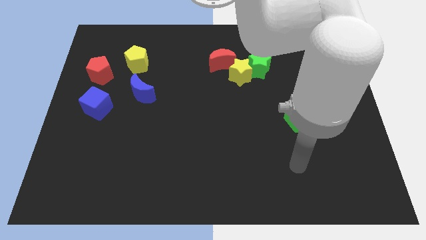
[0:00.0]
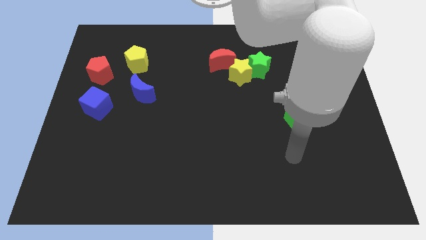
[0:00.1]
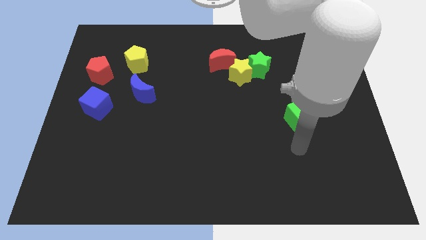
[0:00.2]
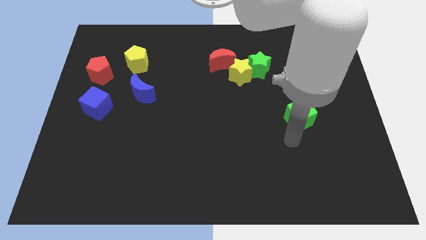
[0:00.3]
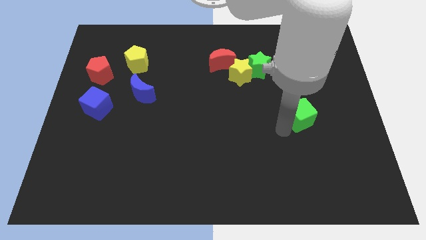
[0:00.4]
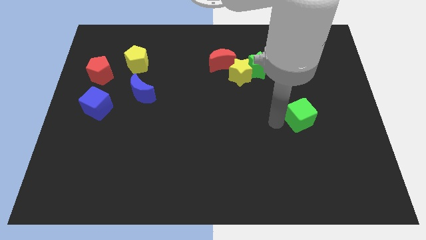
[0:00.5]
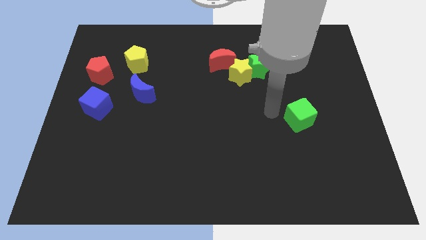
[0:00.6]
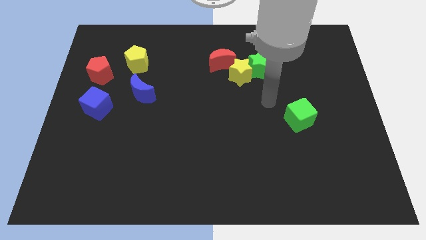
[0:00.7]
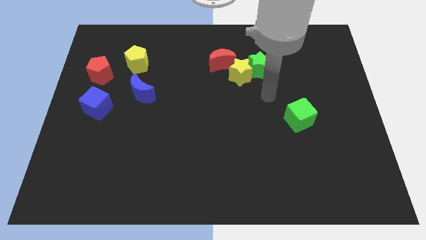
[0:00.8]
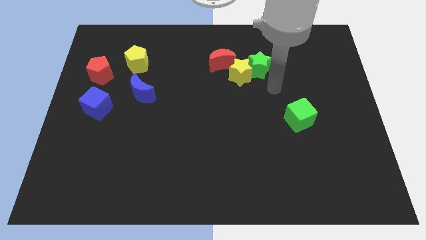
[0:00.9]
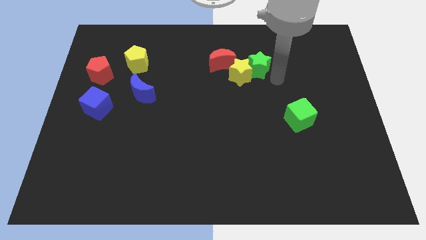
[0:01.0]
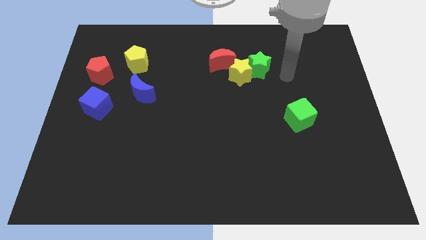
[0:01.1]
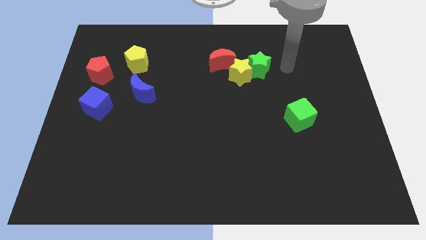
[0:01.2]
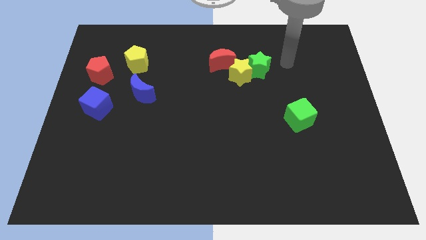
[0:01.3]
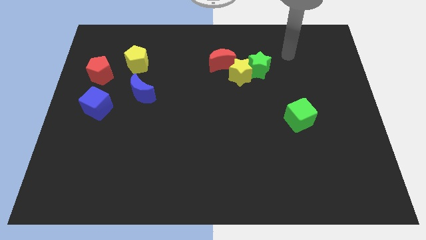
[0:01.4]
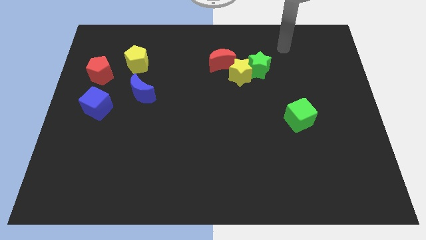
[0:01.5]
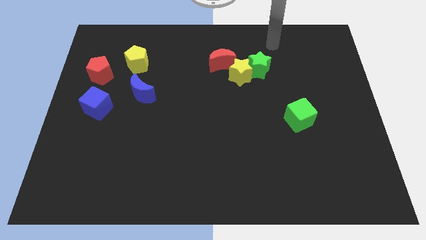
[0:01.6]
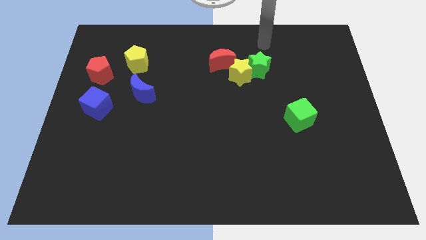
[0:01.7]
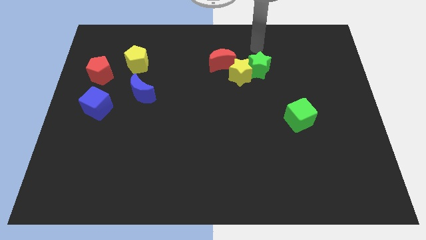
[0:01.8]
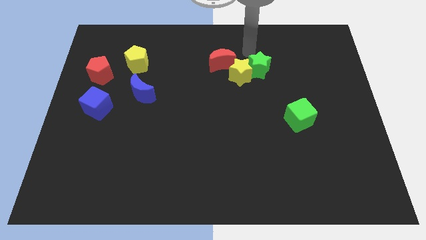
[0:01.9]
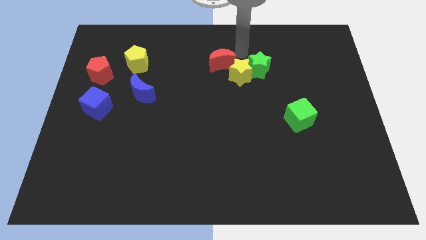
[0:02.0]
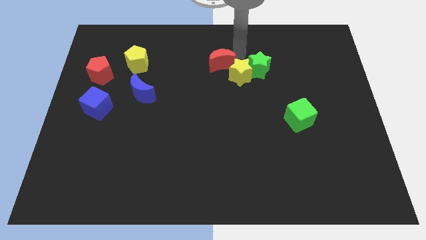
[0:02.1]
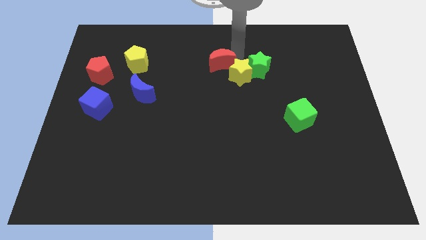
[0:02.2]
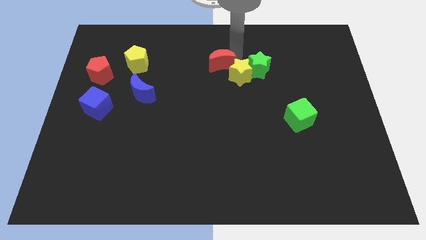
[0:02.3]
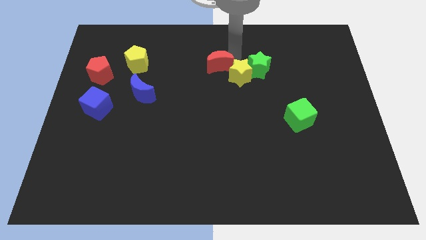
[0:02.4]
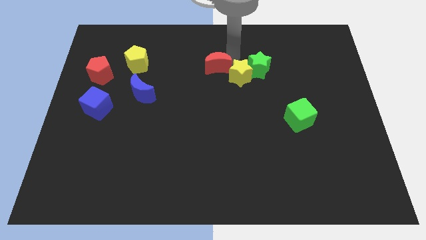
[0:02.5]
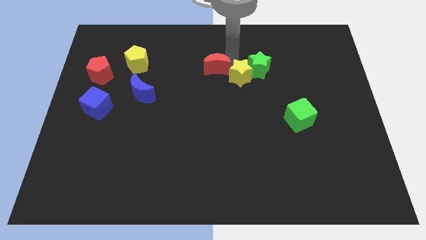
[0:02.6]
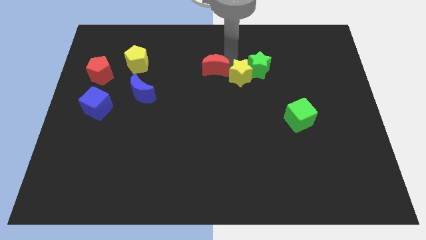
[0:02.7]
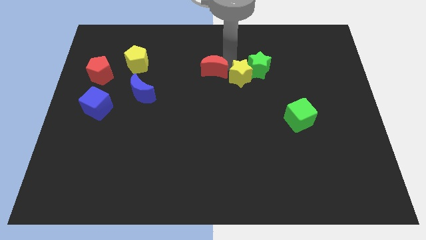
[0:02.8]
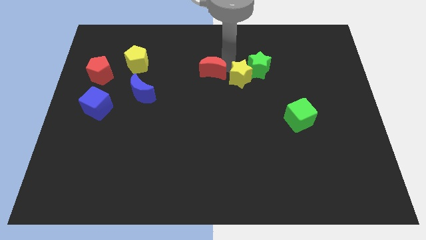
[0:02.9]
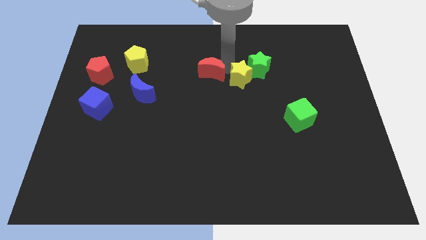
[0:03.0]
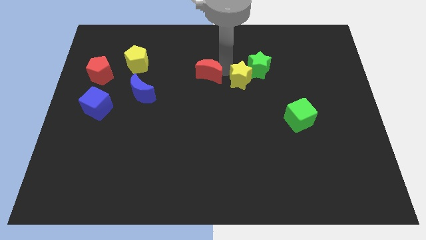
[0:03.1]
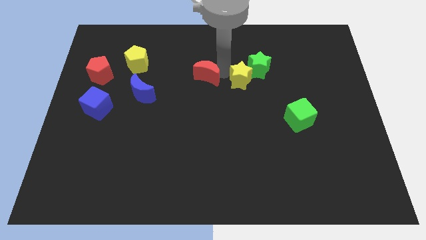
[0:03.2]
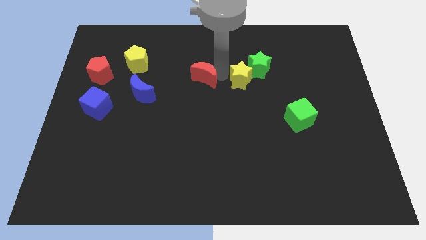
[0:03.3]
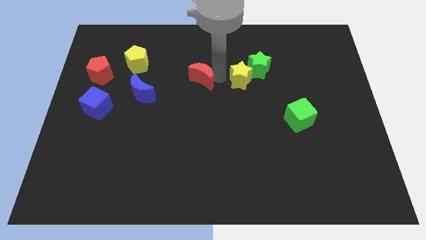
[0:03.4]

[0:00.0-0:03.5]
push the red moon downwards and to the left a little bit

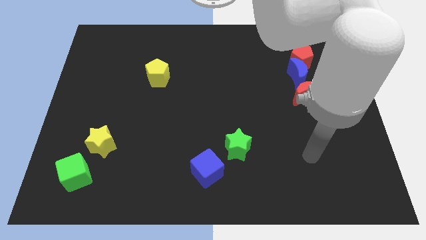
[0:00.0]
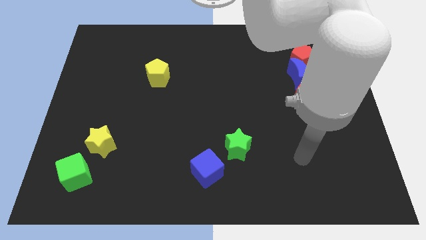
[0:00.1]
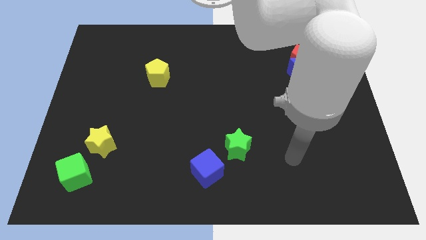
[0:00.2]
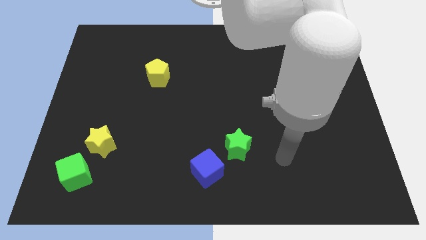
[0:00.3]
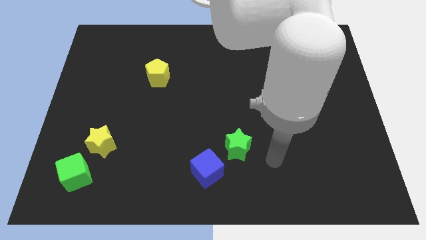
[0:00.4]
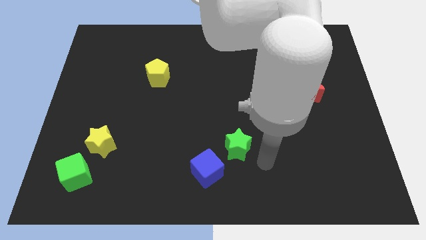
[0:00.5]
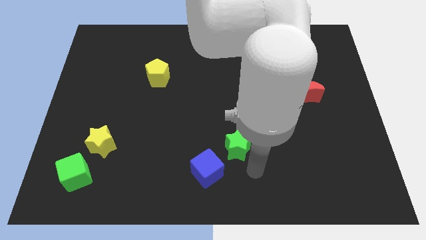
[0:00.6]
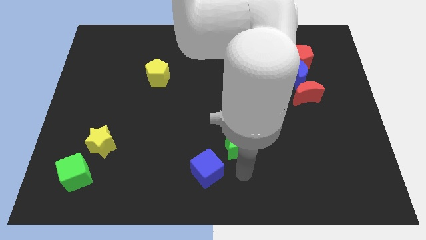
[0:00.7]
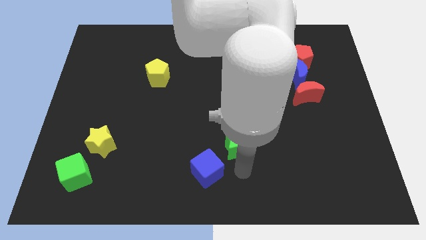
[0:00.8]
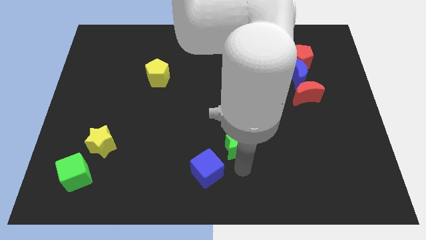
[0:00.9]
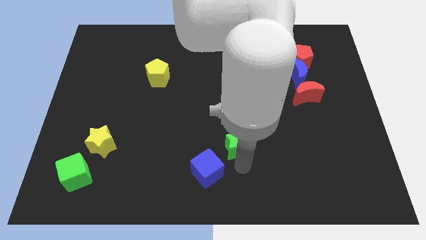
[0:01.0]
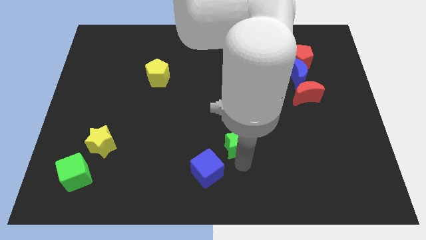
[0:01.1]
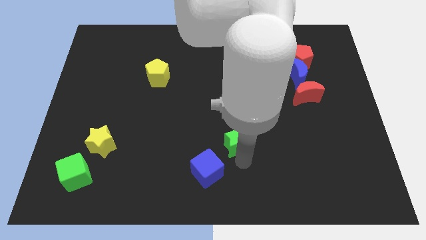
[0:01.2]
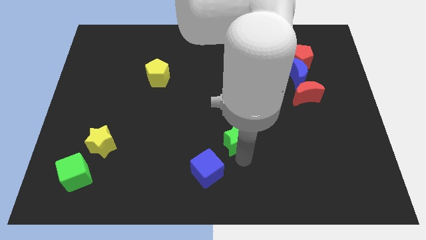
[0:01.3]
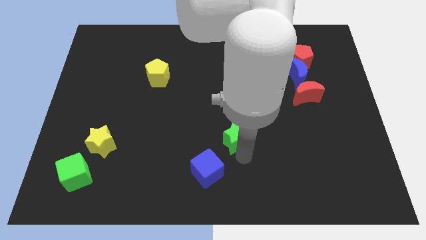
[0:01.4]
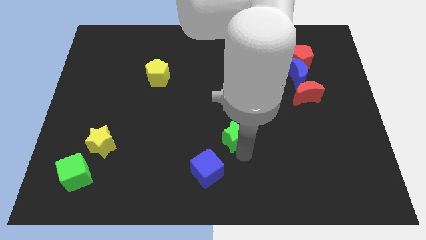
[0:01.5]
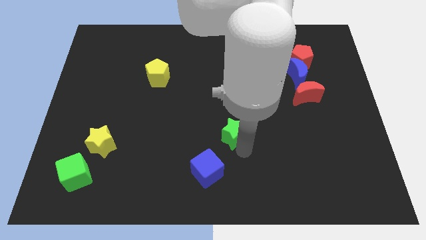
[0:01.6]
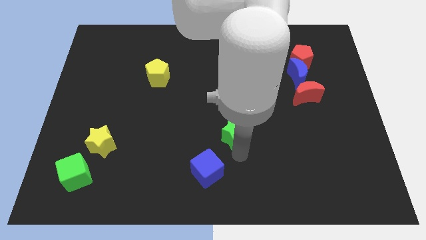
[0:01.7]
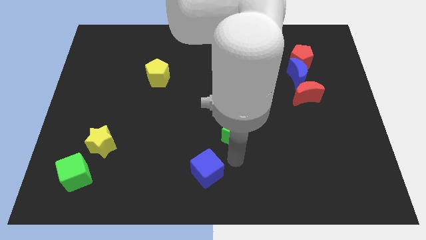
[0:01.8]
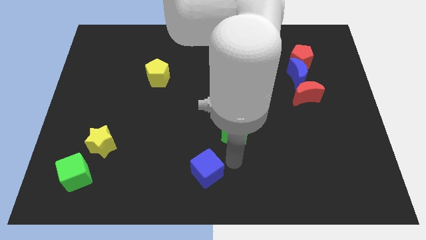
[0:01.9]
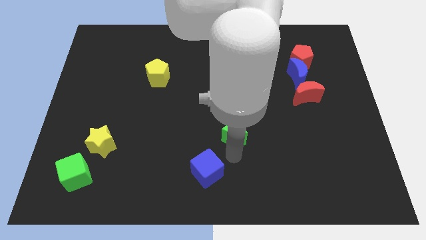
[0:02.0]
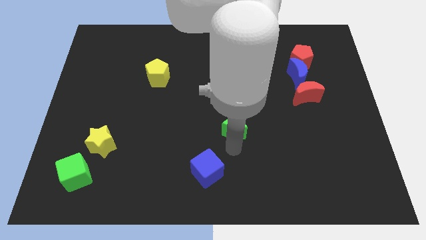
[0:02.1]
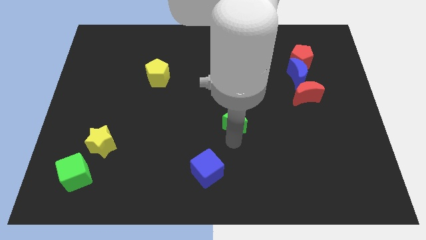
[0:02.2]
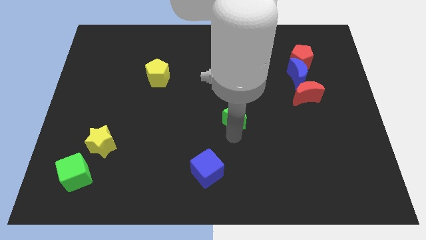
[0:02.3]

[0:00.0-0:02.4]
push the green star a bit up

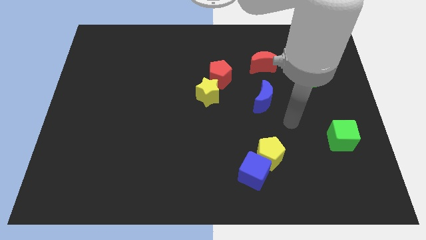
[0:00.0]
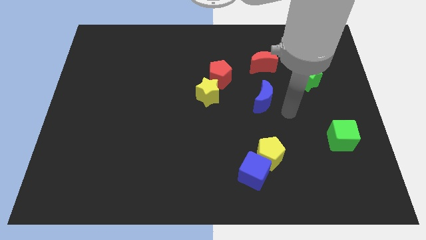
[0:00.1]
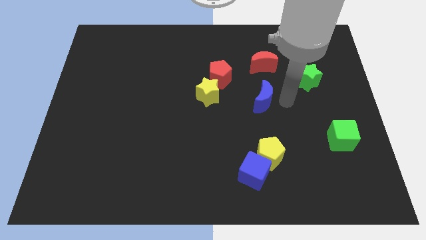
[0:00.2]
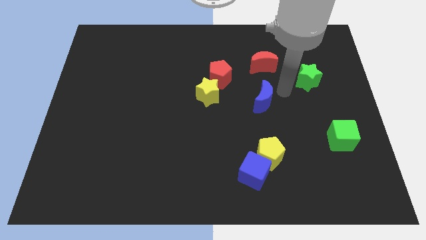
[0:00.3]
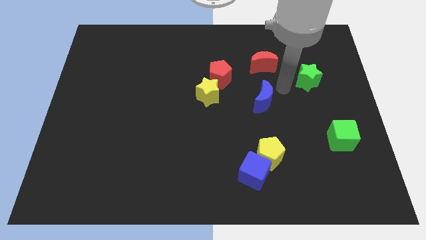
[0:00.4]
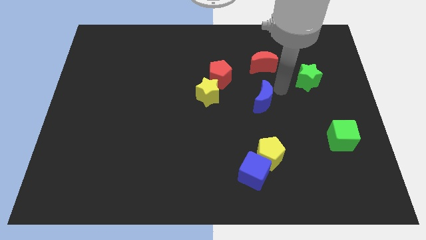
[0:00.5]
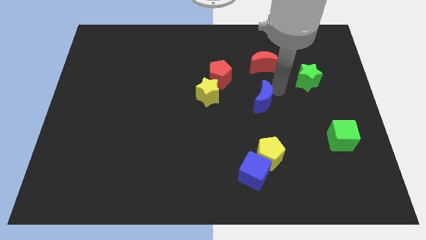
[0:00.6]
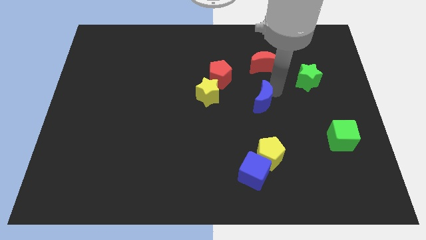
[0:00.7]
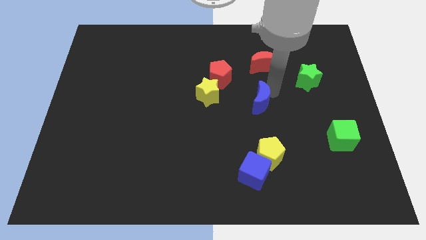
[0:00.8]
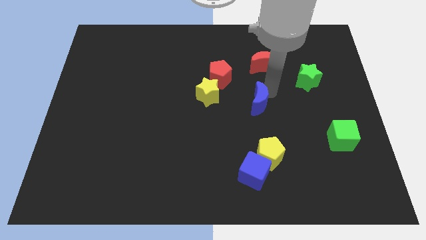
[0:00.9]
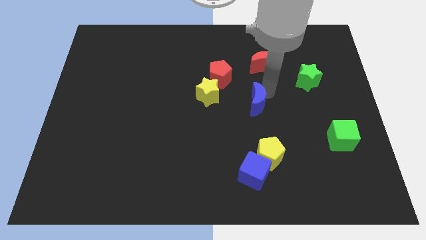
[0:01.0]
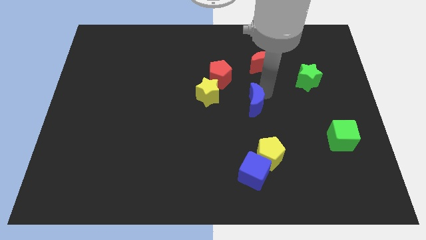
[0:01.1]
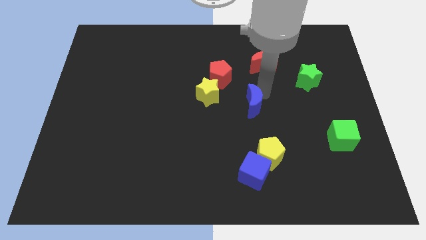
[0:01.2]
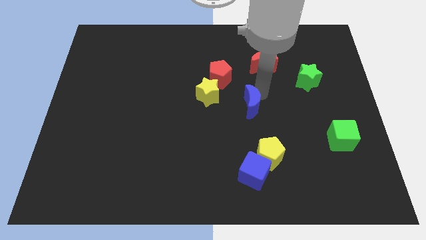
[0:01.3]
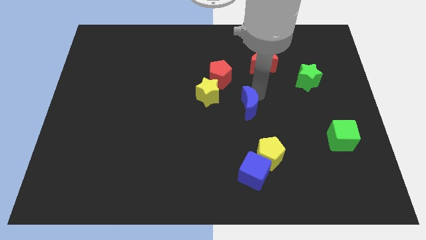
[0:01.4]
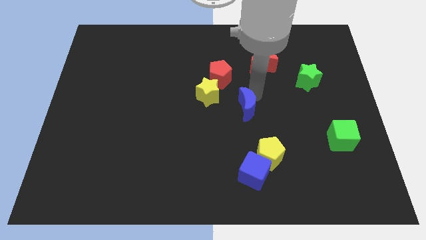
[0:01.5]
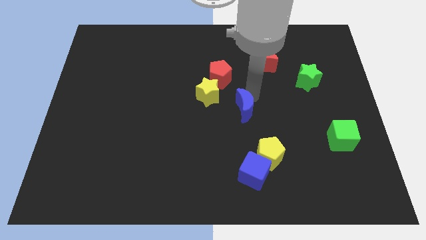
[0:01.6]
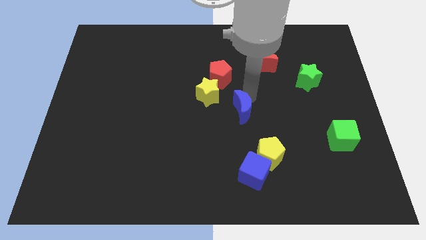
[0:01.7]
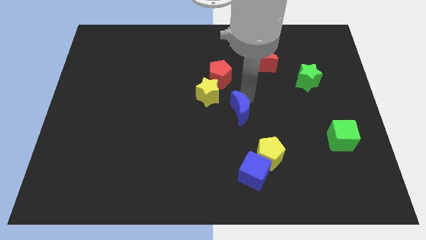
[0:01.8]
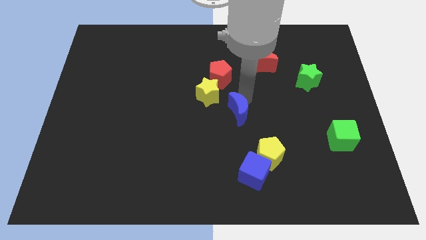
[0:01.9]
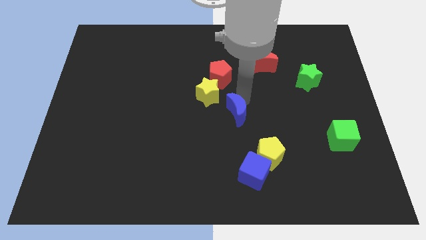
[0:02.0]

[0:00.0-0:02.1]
move the blue moon a little bit downwards and then left

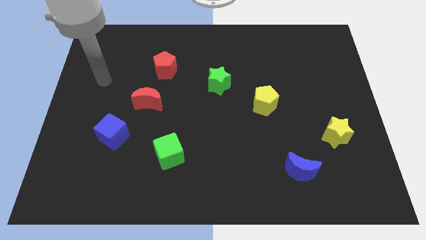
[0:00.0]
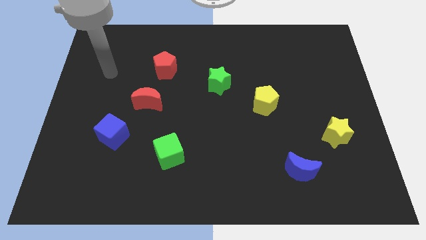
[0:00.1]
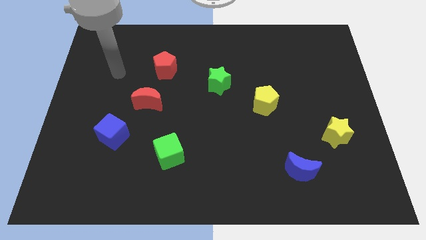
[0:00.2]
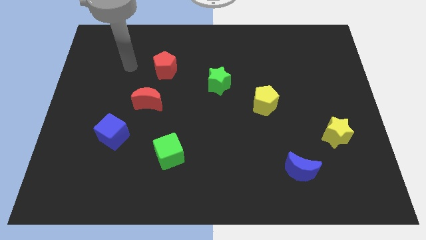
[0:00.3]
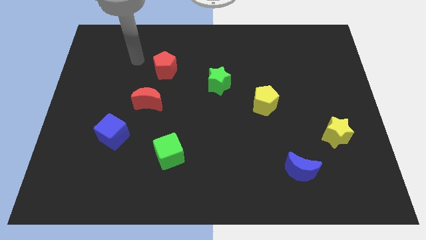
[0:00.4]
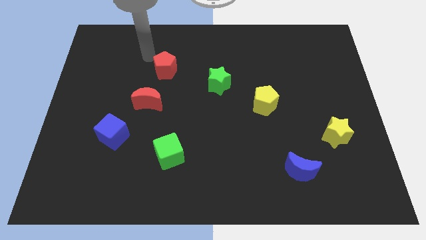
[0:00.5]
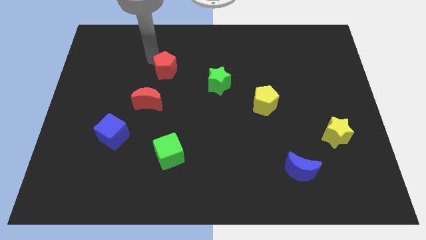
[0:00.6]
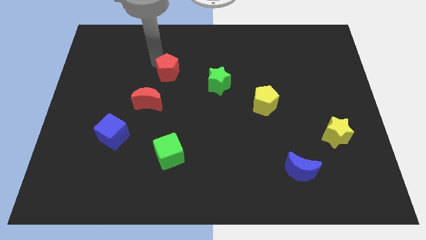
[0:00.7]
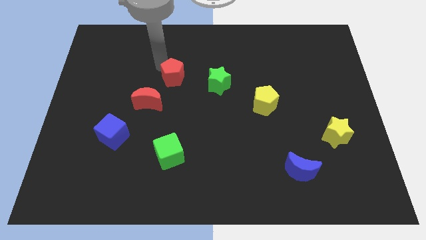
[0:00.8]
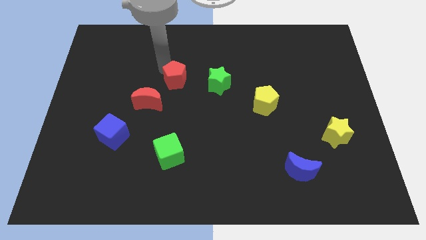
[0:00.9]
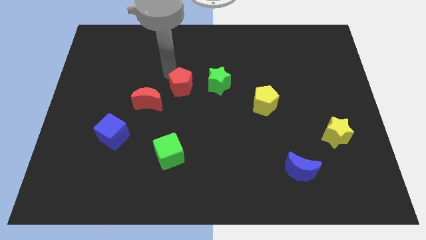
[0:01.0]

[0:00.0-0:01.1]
slightly move the red pentagon downwards and to the right diagonally
